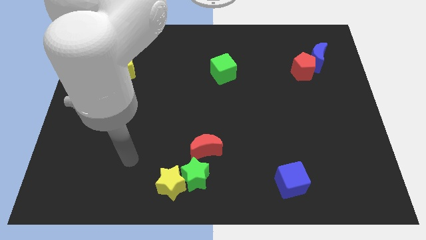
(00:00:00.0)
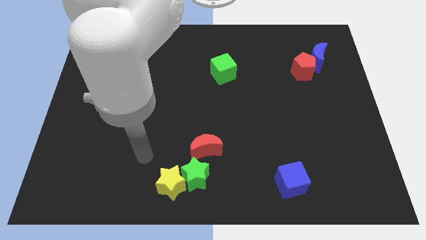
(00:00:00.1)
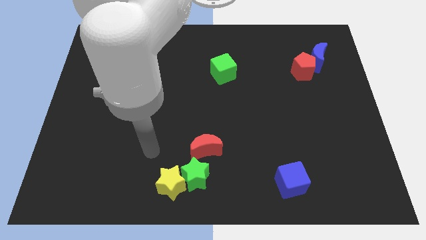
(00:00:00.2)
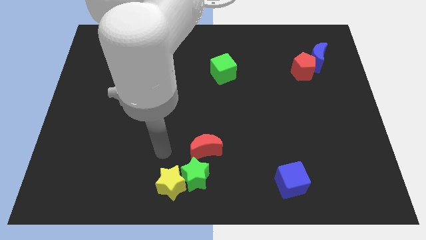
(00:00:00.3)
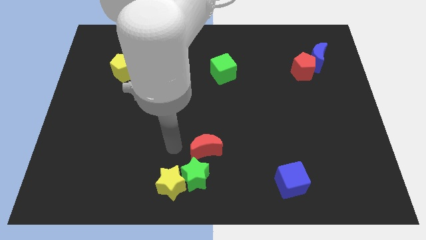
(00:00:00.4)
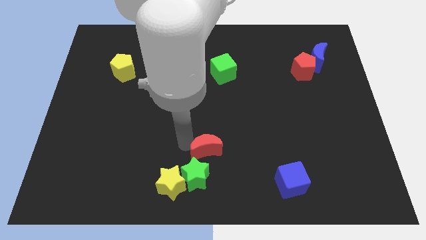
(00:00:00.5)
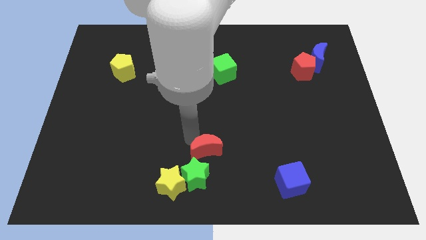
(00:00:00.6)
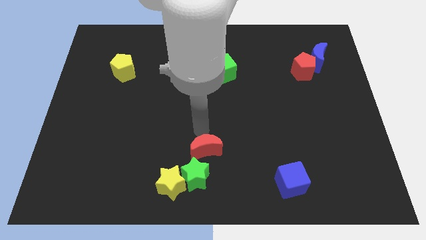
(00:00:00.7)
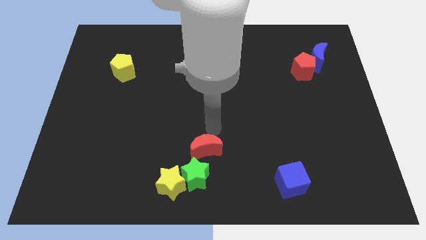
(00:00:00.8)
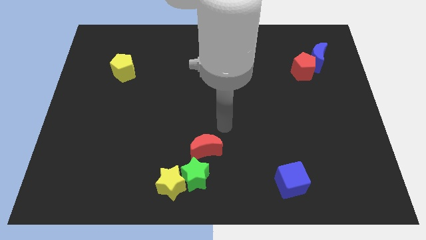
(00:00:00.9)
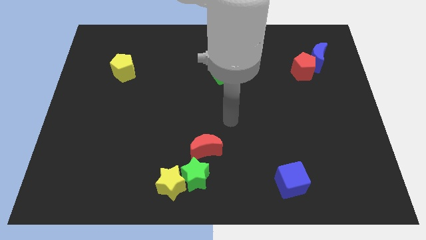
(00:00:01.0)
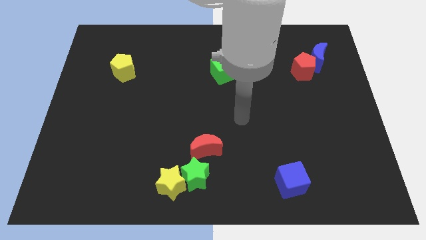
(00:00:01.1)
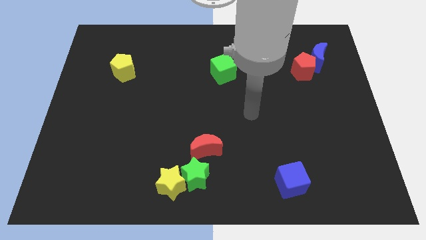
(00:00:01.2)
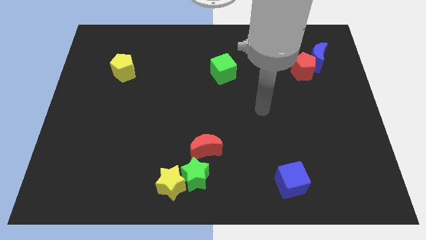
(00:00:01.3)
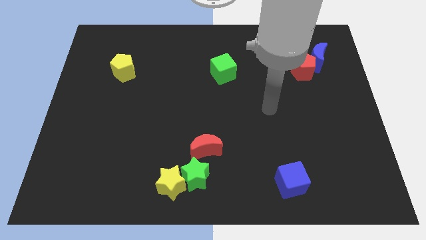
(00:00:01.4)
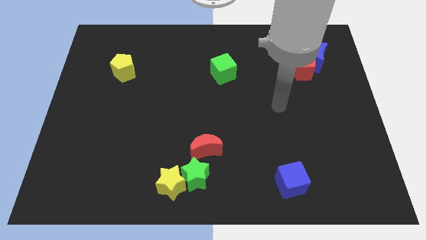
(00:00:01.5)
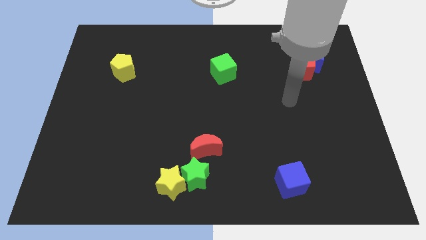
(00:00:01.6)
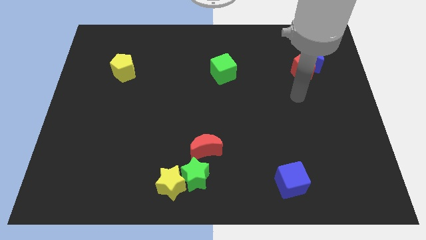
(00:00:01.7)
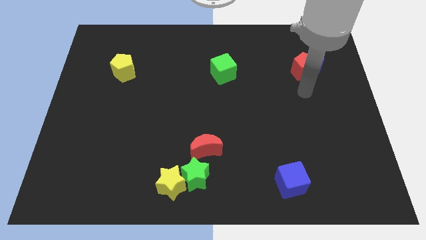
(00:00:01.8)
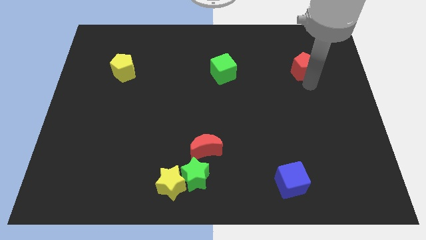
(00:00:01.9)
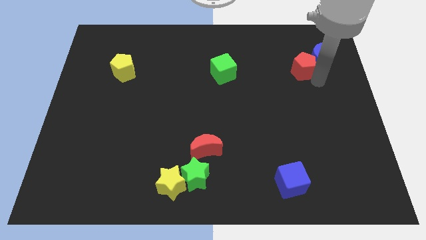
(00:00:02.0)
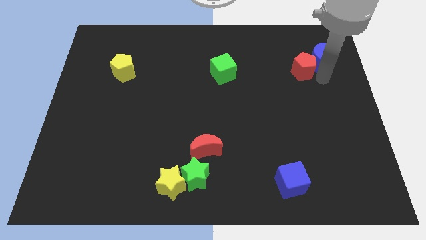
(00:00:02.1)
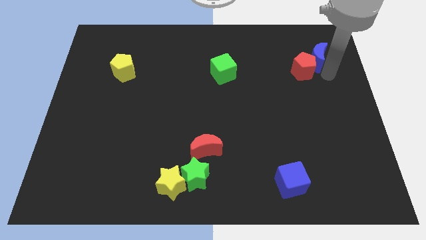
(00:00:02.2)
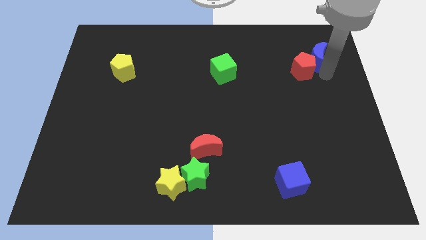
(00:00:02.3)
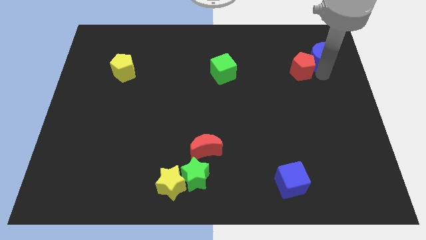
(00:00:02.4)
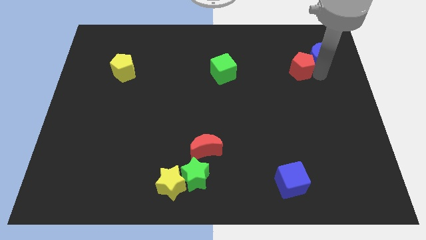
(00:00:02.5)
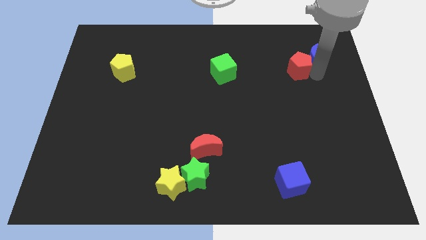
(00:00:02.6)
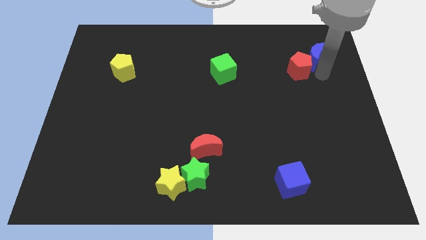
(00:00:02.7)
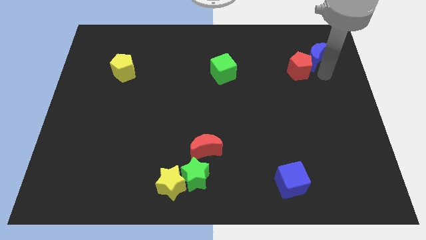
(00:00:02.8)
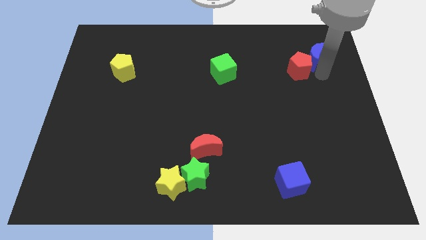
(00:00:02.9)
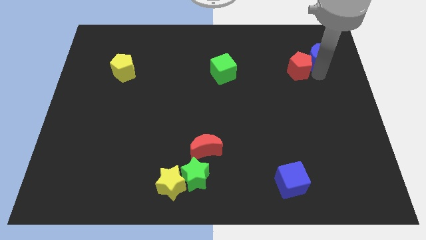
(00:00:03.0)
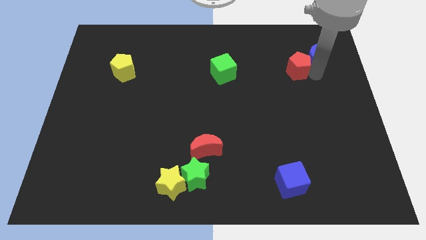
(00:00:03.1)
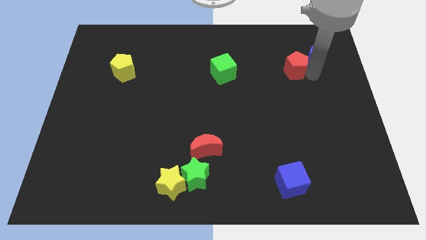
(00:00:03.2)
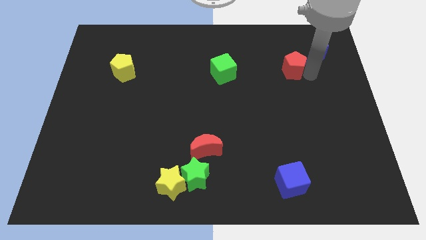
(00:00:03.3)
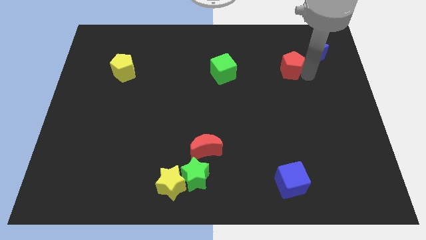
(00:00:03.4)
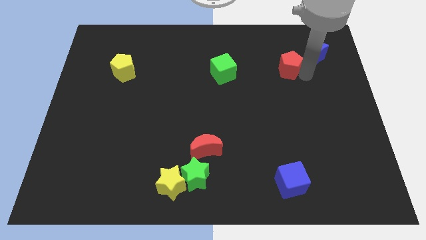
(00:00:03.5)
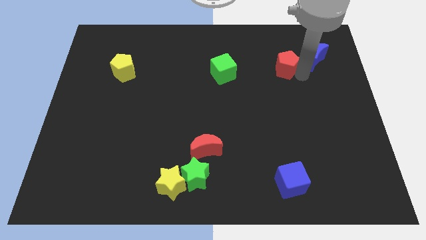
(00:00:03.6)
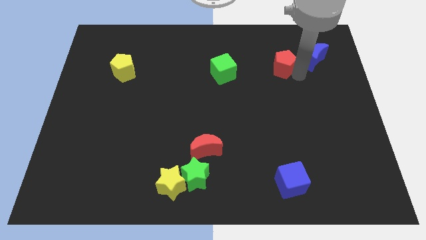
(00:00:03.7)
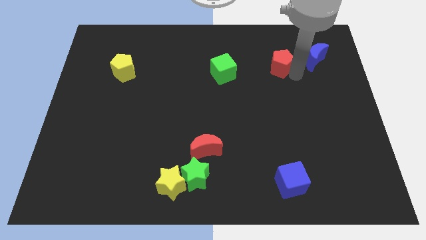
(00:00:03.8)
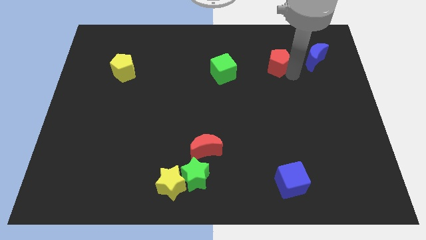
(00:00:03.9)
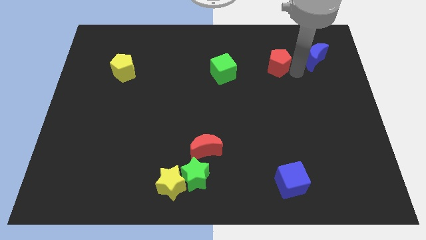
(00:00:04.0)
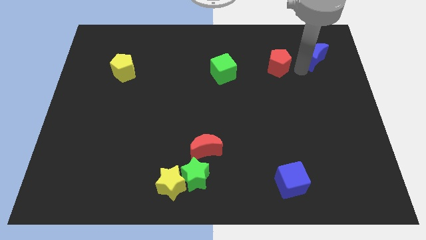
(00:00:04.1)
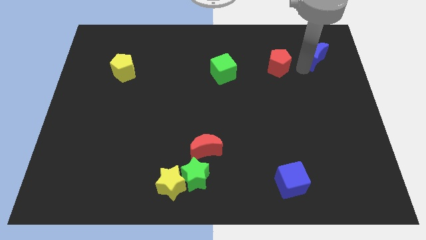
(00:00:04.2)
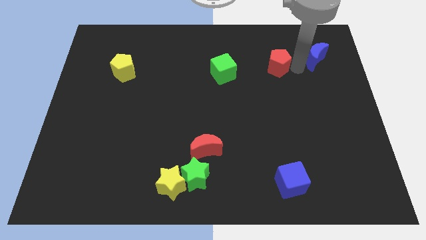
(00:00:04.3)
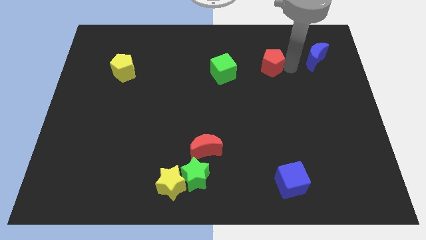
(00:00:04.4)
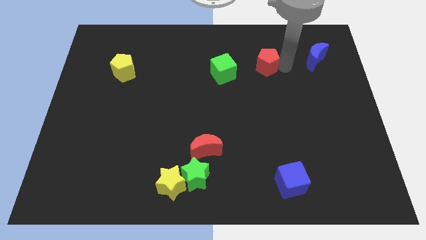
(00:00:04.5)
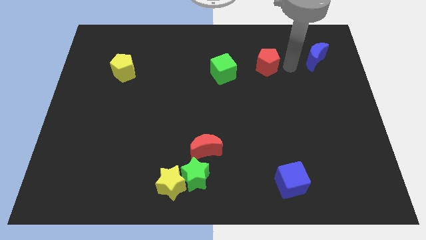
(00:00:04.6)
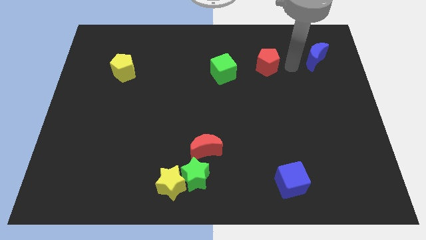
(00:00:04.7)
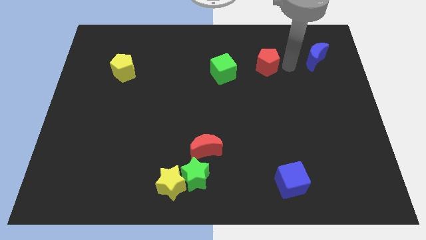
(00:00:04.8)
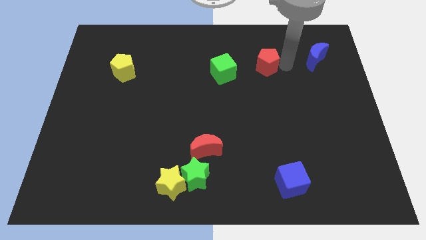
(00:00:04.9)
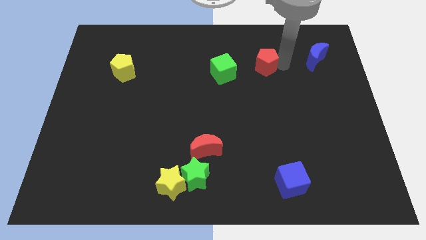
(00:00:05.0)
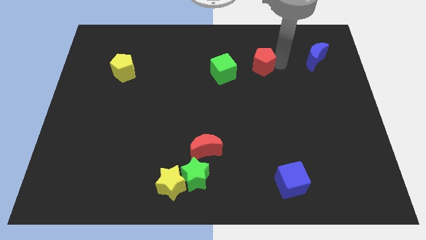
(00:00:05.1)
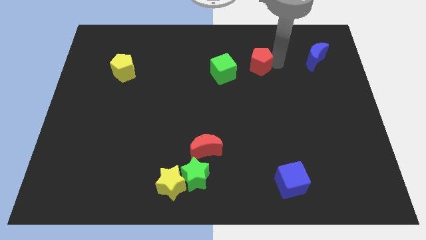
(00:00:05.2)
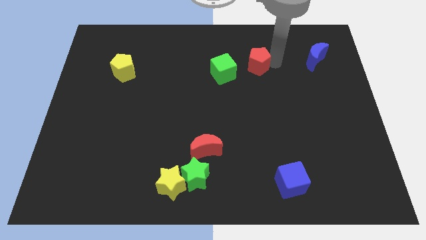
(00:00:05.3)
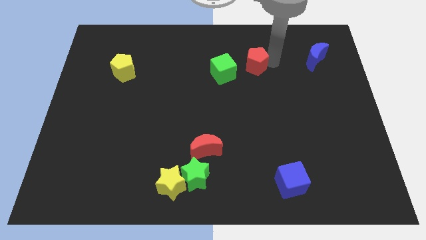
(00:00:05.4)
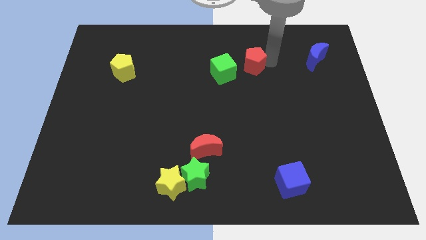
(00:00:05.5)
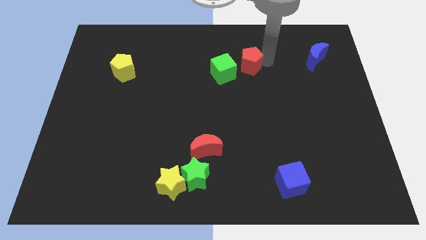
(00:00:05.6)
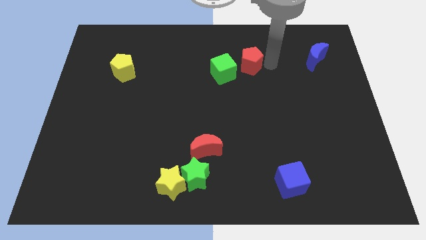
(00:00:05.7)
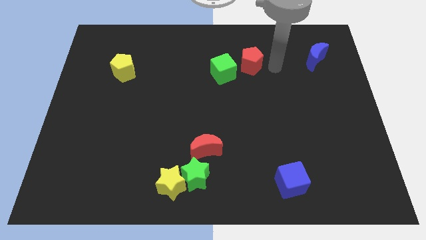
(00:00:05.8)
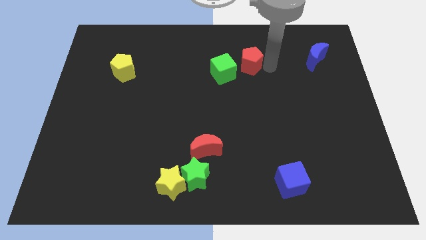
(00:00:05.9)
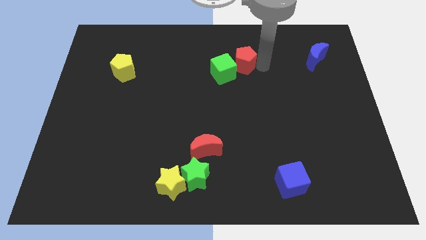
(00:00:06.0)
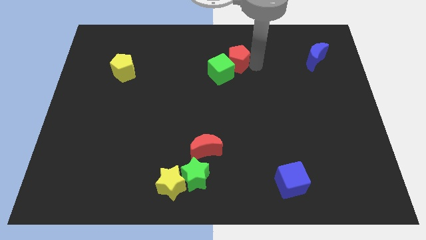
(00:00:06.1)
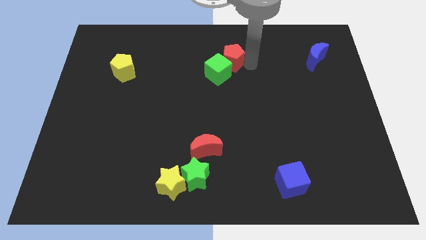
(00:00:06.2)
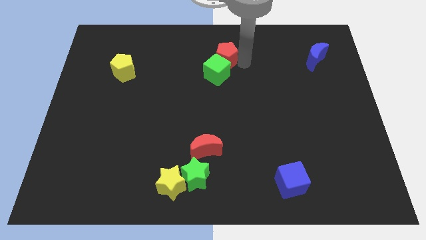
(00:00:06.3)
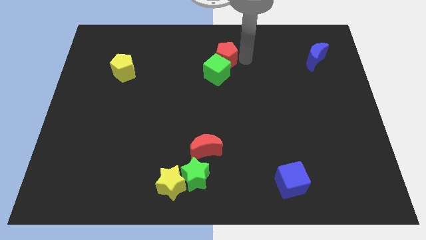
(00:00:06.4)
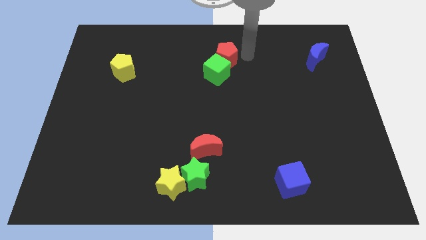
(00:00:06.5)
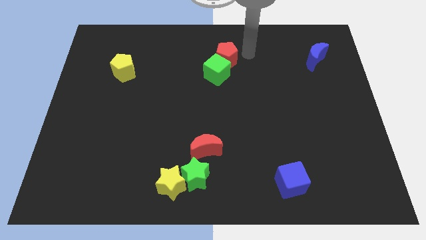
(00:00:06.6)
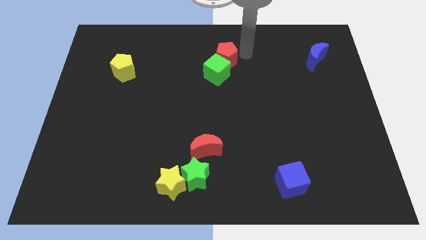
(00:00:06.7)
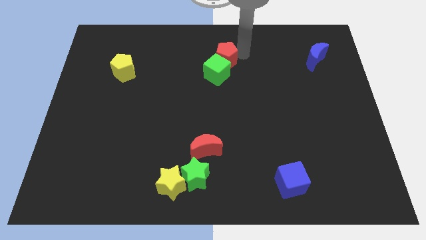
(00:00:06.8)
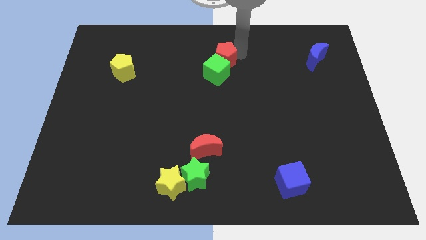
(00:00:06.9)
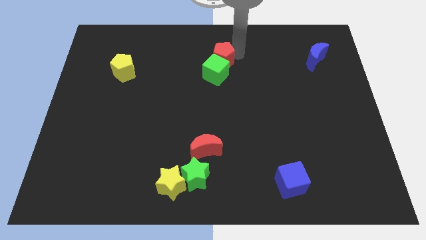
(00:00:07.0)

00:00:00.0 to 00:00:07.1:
move the red pentagon to the left

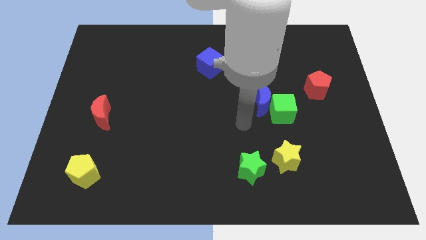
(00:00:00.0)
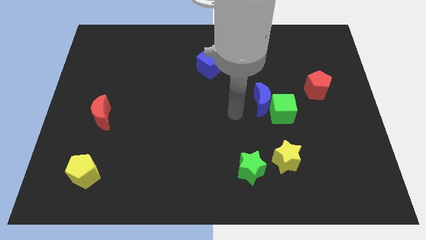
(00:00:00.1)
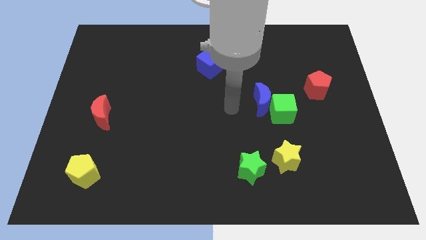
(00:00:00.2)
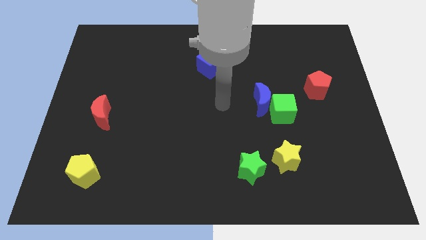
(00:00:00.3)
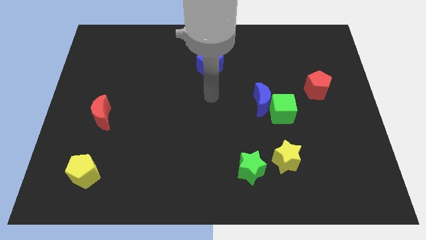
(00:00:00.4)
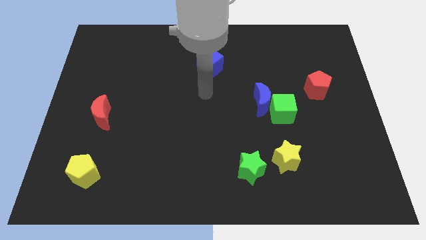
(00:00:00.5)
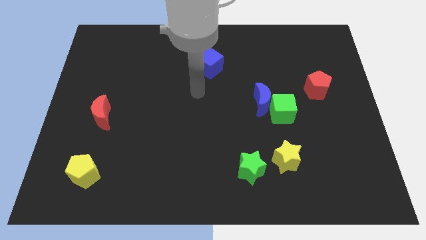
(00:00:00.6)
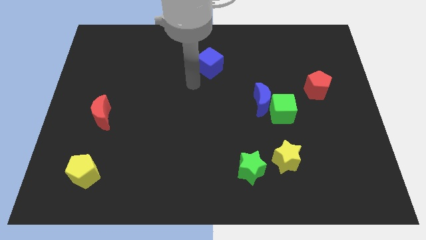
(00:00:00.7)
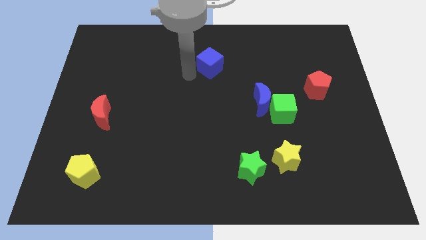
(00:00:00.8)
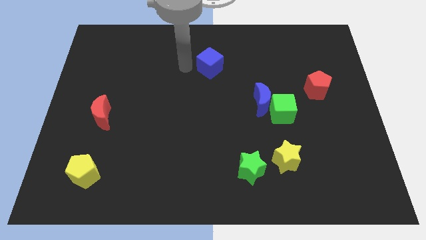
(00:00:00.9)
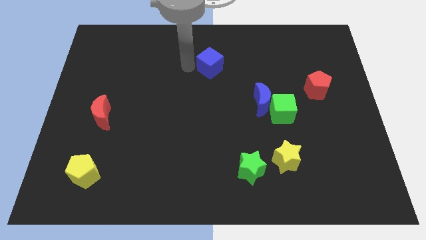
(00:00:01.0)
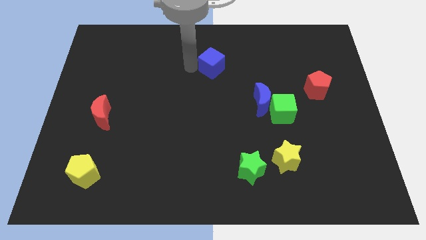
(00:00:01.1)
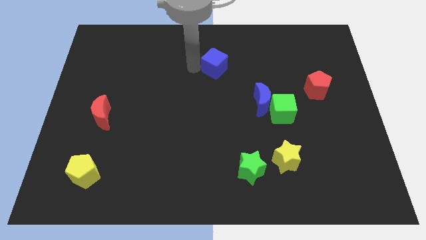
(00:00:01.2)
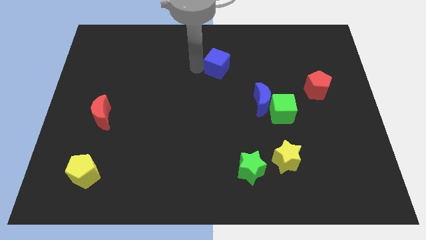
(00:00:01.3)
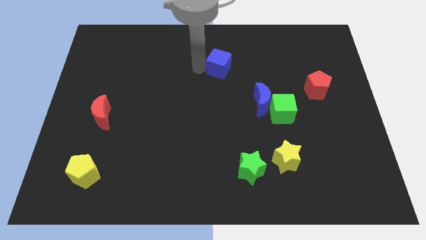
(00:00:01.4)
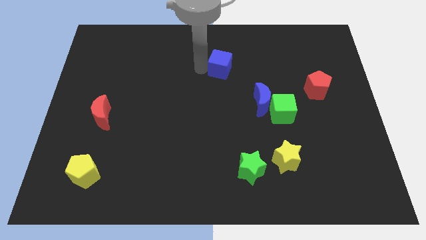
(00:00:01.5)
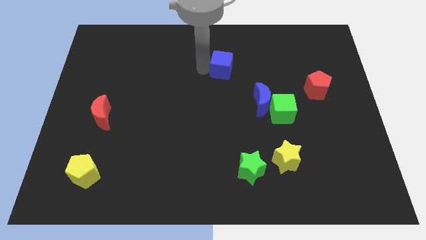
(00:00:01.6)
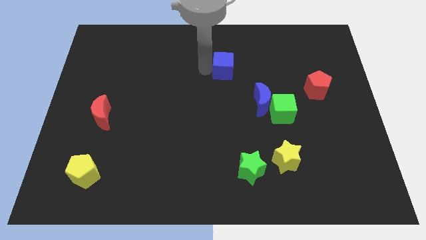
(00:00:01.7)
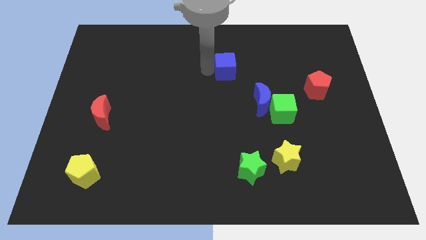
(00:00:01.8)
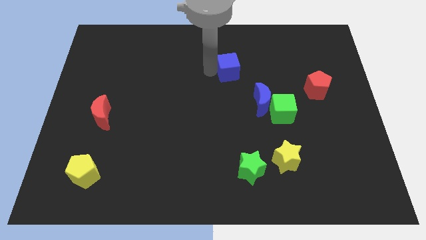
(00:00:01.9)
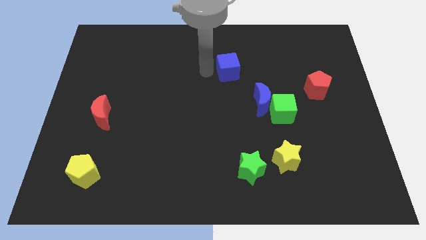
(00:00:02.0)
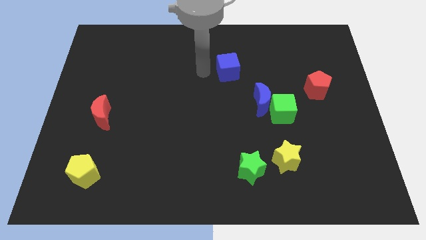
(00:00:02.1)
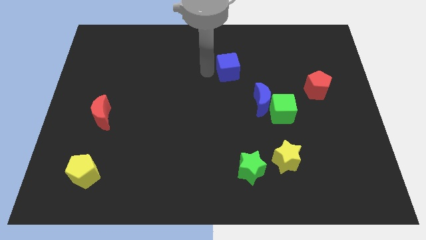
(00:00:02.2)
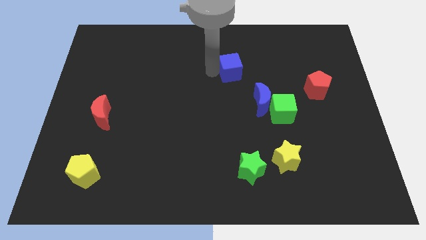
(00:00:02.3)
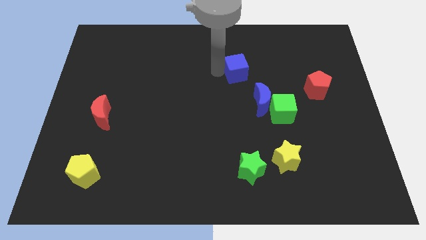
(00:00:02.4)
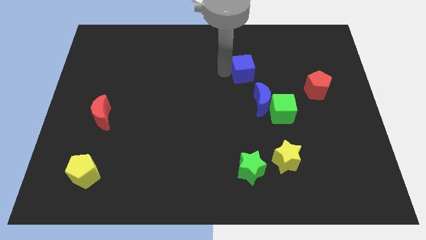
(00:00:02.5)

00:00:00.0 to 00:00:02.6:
slide the blue cube to the right a bit
